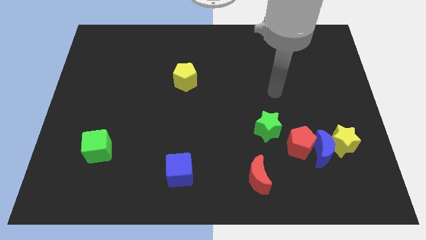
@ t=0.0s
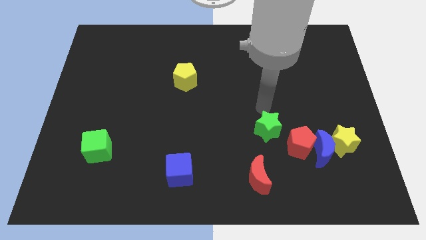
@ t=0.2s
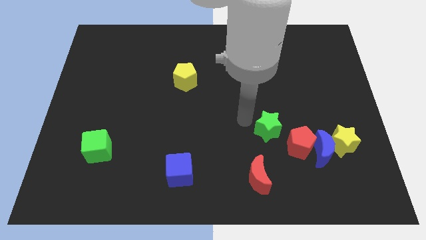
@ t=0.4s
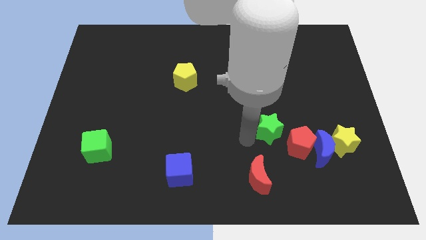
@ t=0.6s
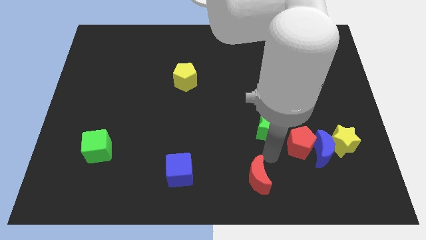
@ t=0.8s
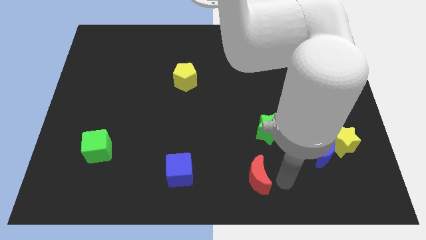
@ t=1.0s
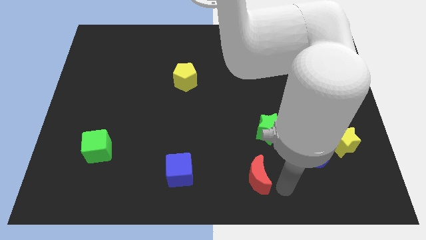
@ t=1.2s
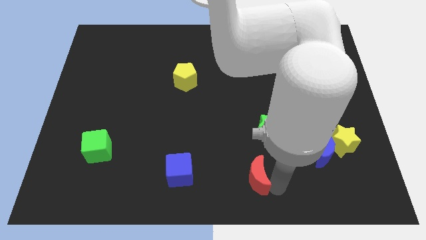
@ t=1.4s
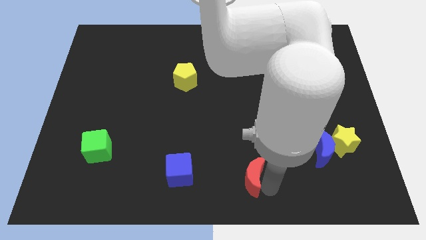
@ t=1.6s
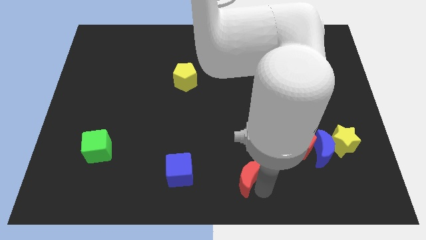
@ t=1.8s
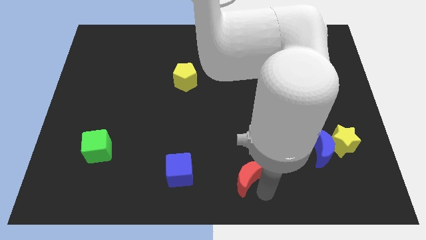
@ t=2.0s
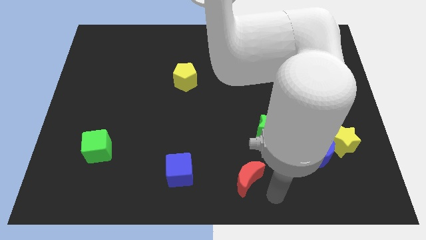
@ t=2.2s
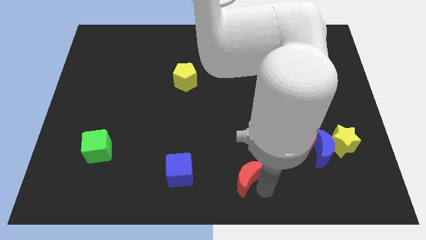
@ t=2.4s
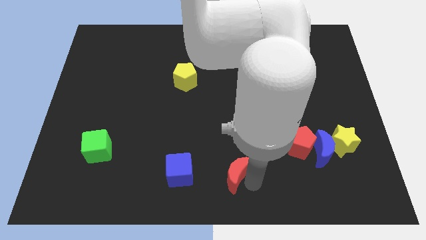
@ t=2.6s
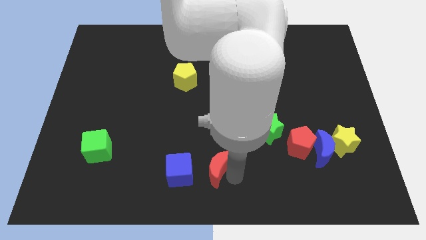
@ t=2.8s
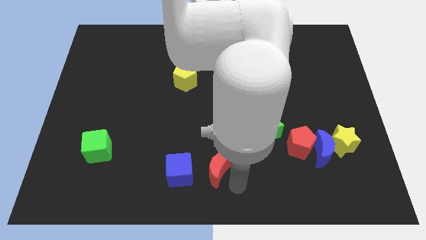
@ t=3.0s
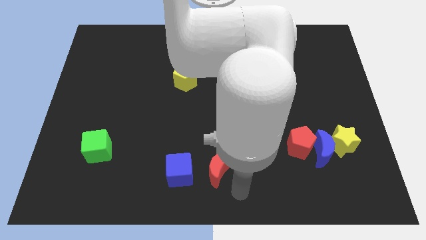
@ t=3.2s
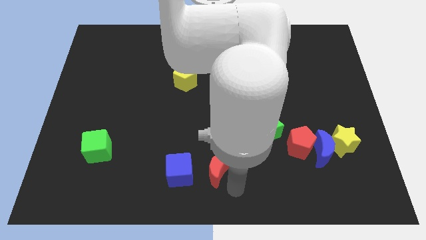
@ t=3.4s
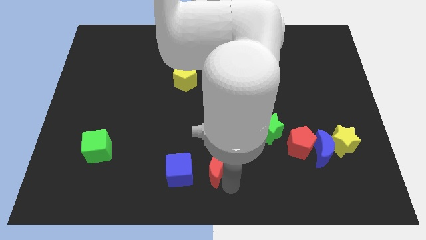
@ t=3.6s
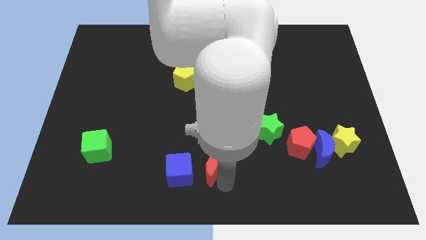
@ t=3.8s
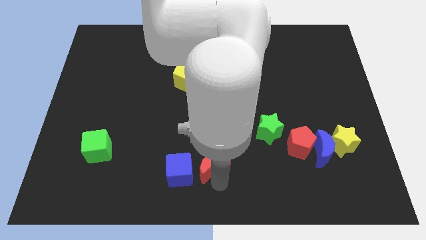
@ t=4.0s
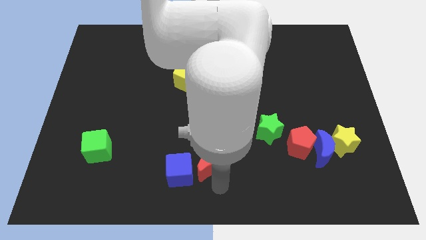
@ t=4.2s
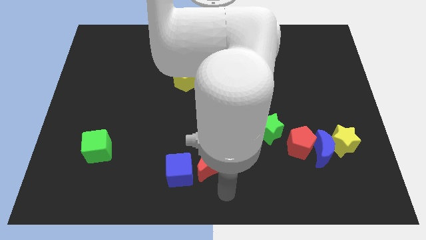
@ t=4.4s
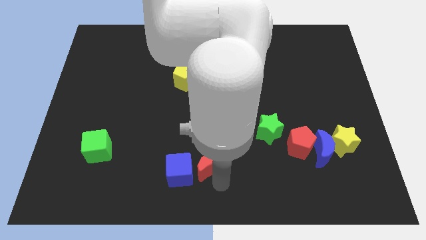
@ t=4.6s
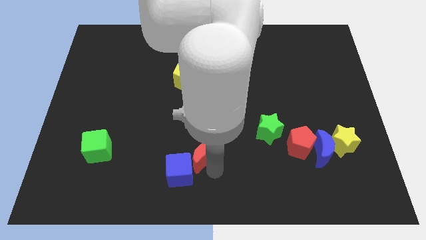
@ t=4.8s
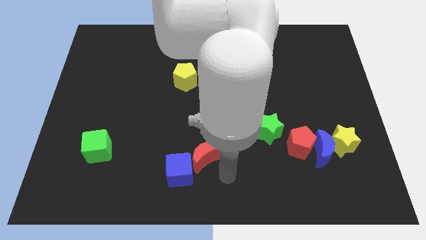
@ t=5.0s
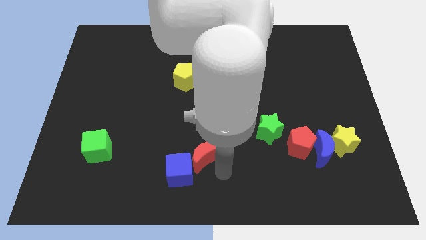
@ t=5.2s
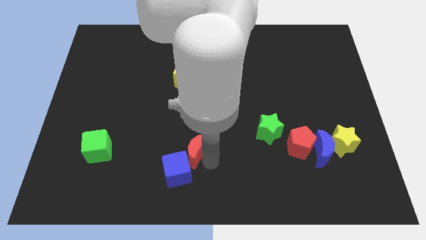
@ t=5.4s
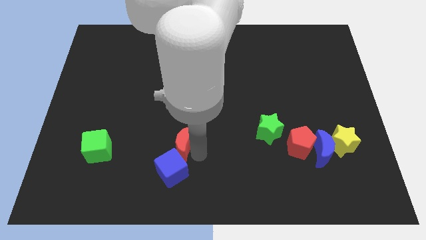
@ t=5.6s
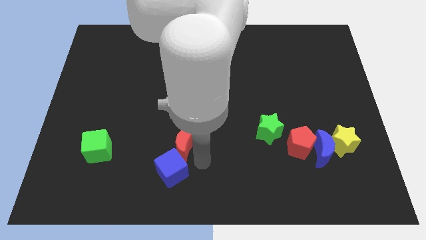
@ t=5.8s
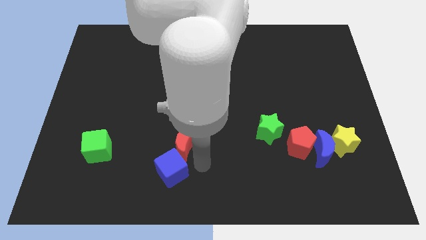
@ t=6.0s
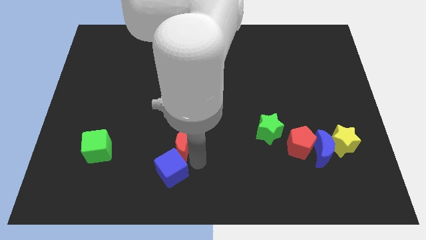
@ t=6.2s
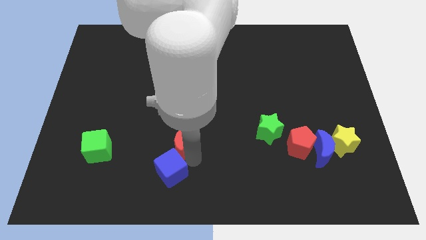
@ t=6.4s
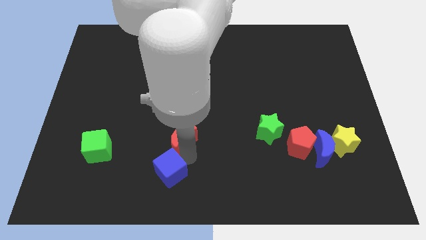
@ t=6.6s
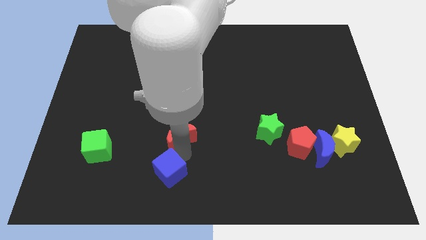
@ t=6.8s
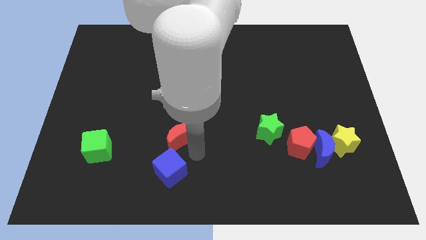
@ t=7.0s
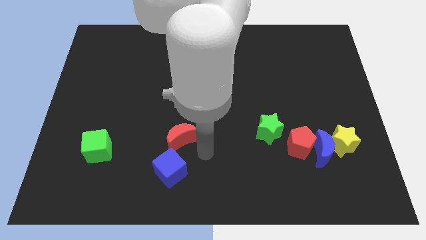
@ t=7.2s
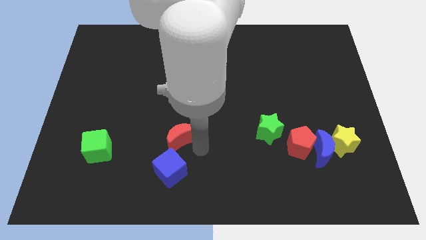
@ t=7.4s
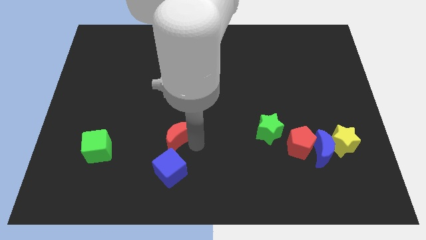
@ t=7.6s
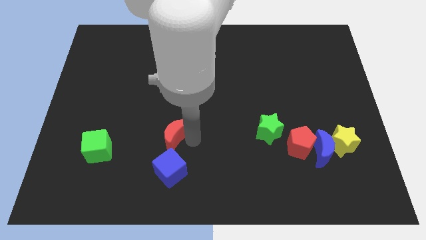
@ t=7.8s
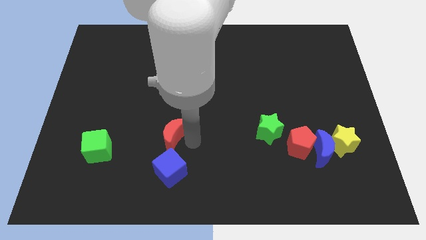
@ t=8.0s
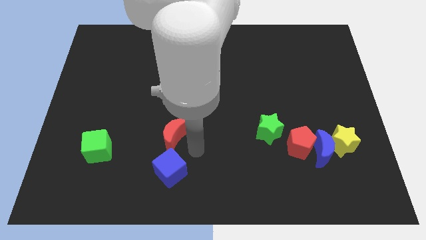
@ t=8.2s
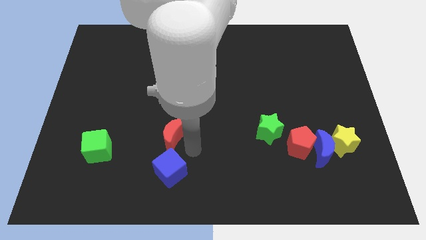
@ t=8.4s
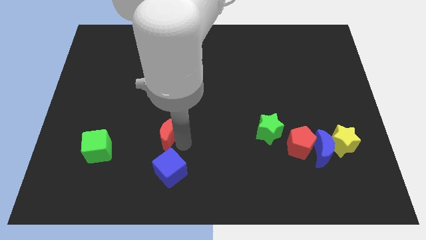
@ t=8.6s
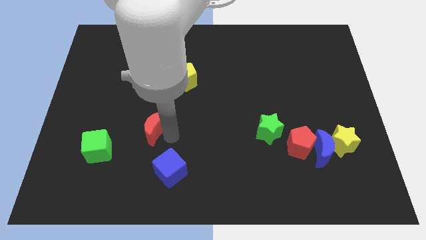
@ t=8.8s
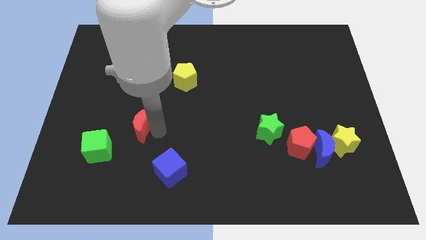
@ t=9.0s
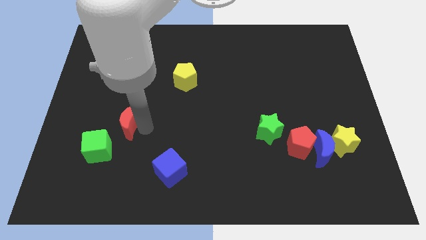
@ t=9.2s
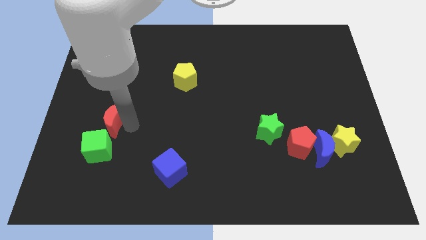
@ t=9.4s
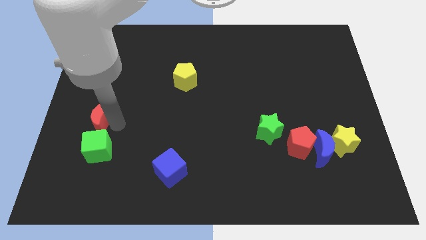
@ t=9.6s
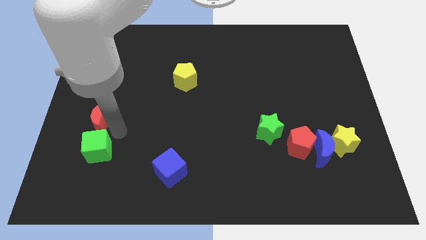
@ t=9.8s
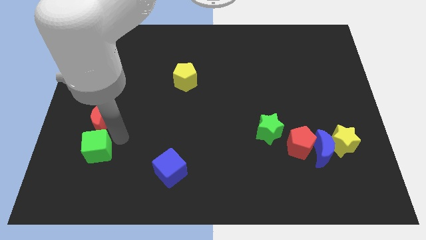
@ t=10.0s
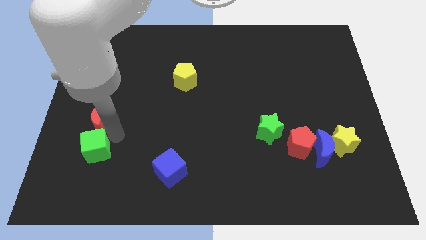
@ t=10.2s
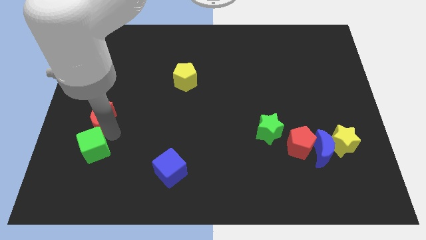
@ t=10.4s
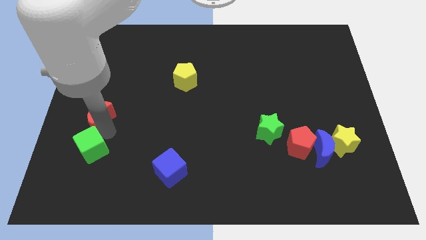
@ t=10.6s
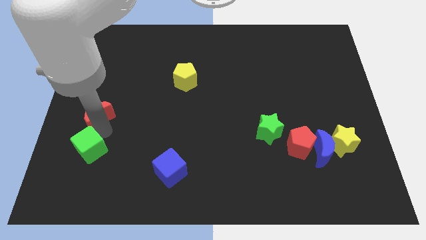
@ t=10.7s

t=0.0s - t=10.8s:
push the red moon to the center left

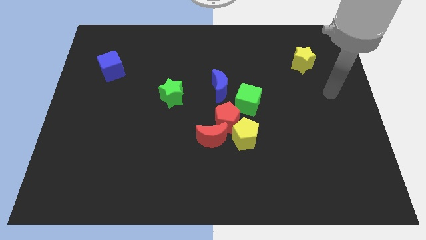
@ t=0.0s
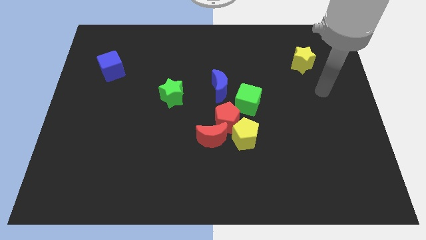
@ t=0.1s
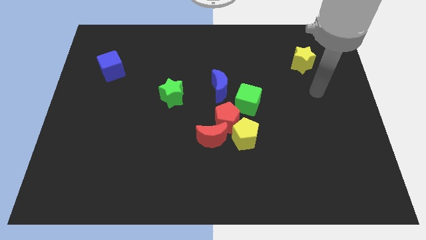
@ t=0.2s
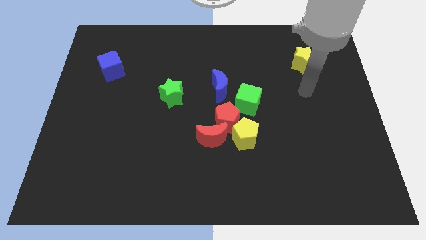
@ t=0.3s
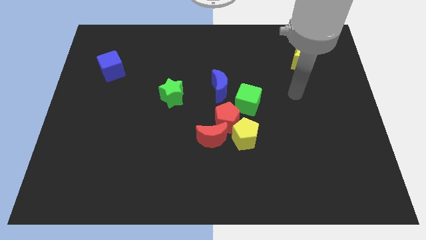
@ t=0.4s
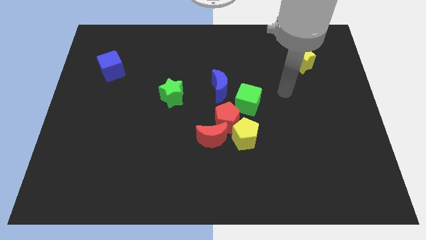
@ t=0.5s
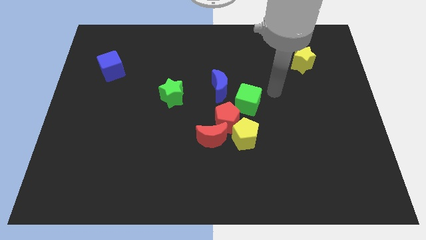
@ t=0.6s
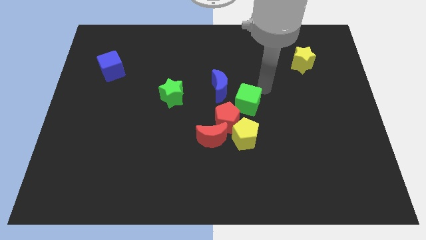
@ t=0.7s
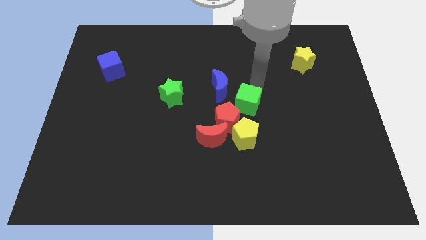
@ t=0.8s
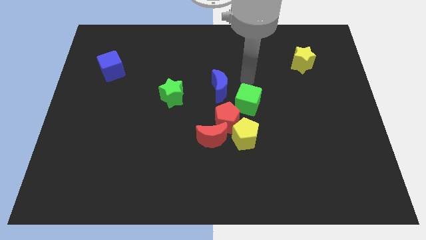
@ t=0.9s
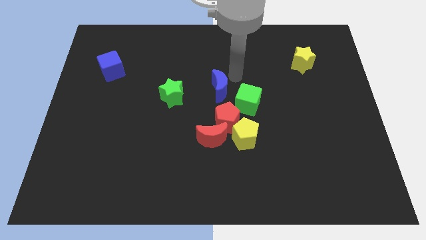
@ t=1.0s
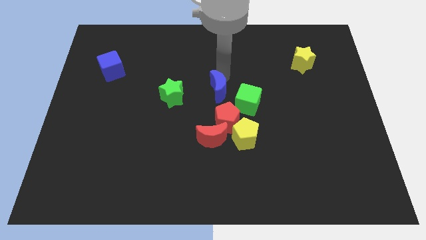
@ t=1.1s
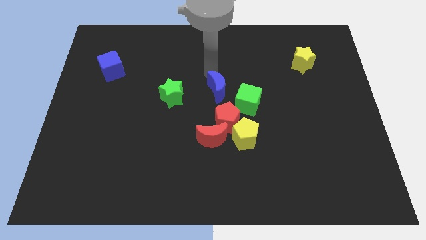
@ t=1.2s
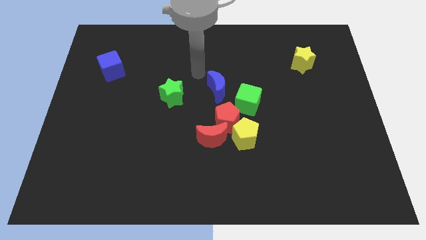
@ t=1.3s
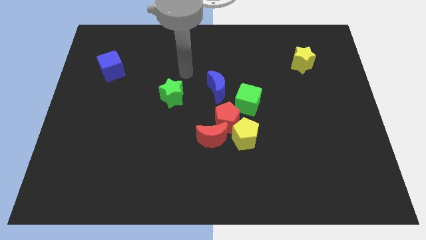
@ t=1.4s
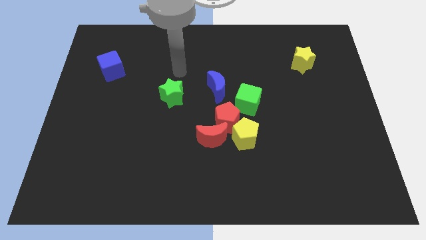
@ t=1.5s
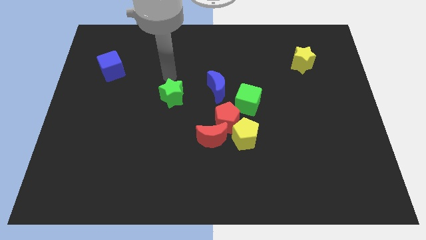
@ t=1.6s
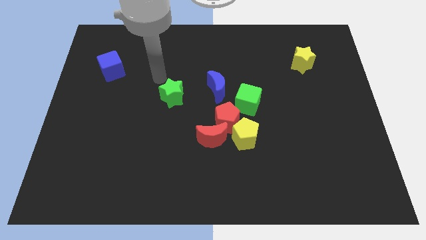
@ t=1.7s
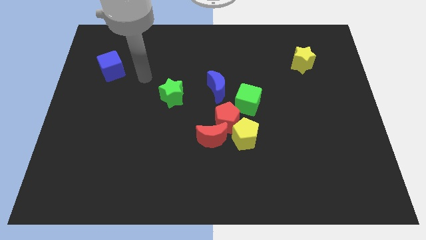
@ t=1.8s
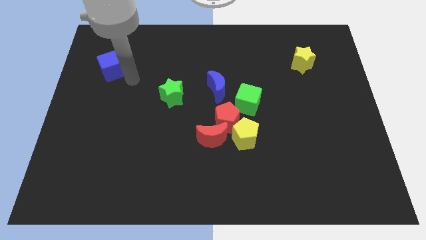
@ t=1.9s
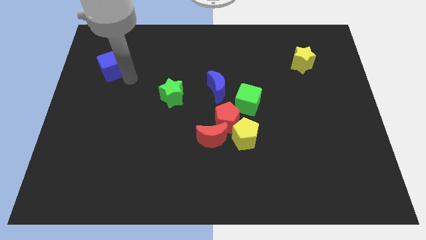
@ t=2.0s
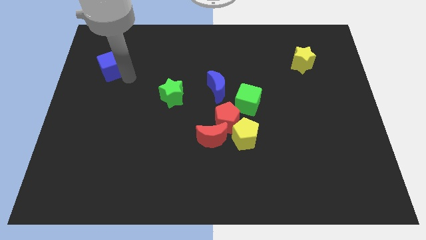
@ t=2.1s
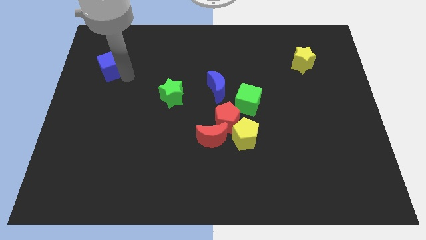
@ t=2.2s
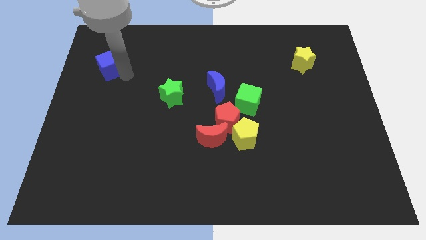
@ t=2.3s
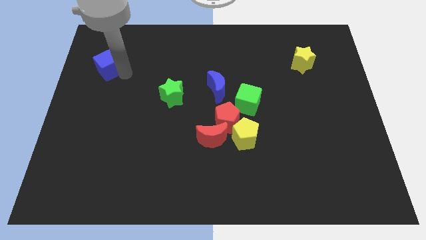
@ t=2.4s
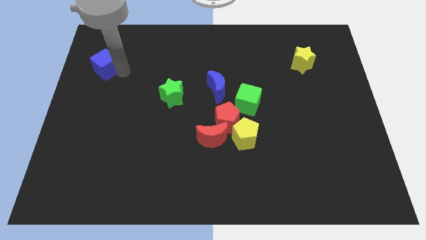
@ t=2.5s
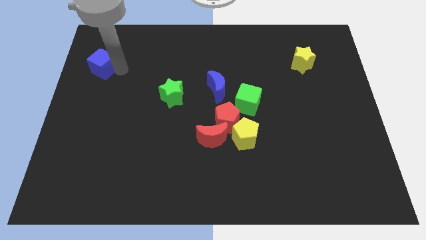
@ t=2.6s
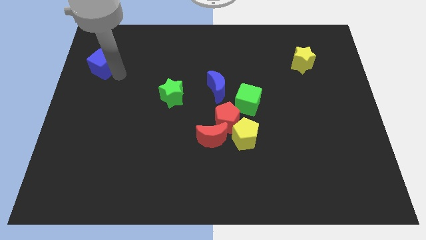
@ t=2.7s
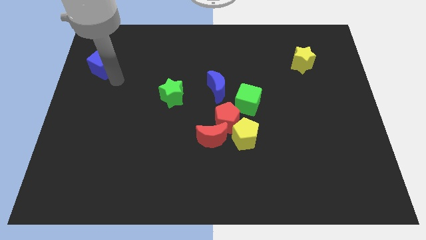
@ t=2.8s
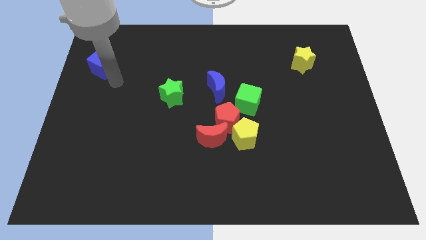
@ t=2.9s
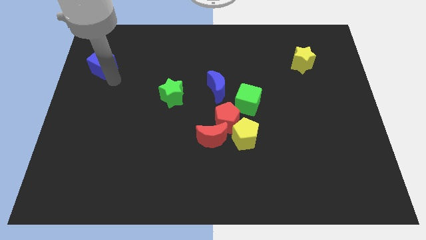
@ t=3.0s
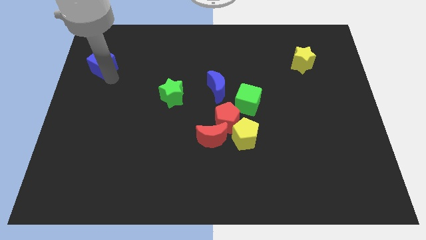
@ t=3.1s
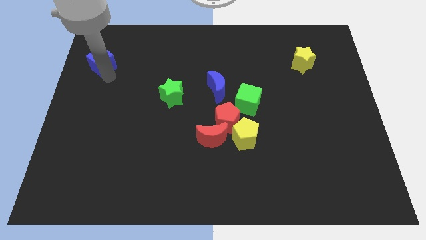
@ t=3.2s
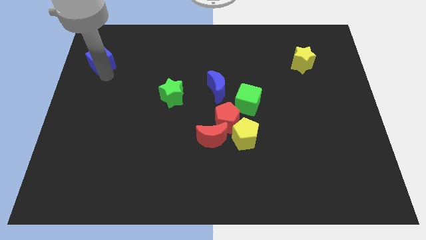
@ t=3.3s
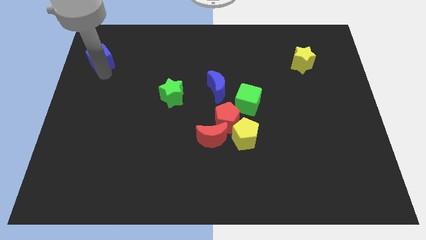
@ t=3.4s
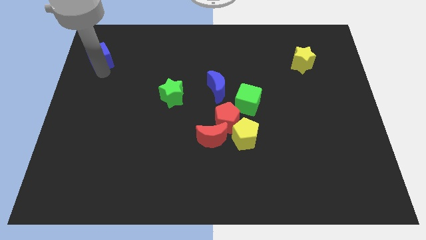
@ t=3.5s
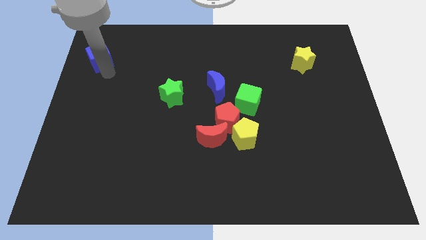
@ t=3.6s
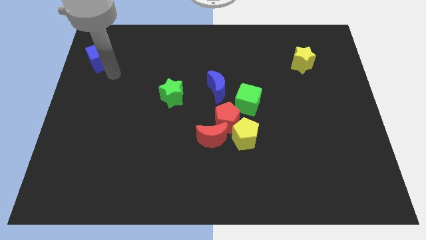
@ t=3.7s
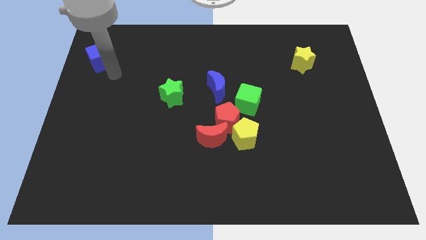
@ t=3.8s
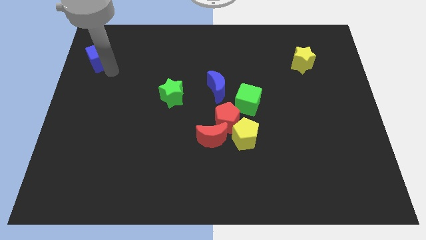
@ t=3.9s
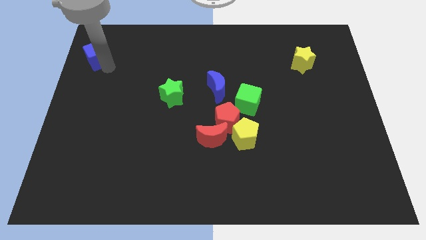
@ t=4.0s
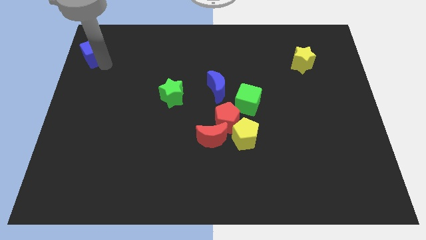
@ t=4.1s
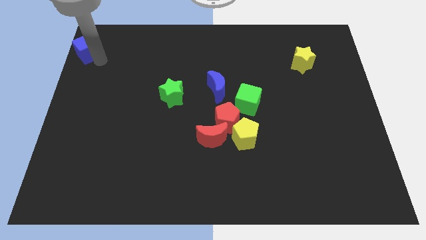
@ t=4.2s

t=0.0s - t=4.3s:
push the blue cube to the top left
